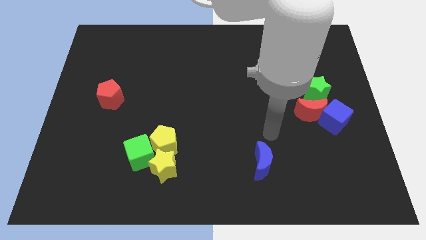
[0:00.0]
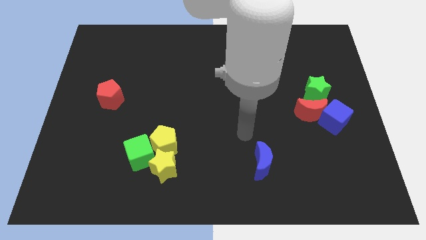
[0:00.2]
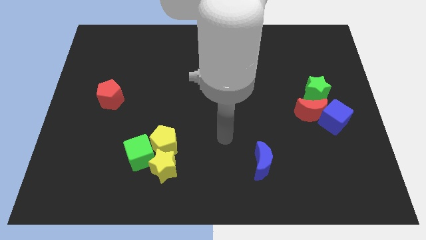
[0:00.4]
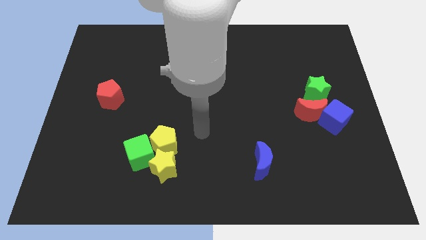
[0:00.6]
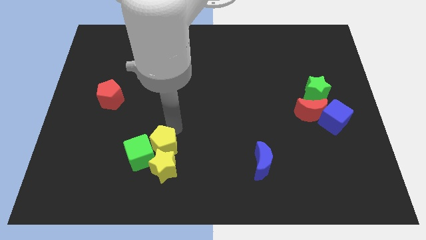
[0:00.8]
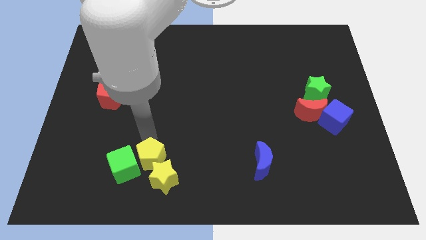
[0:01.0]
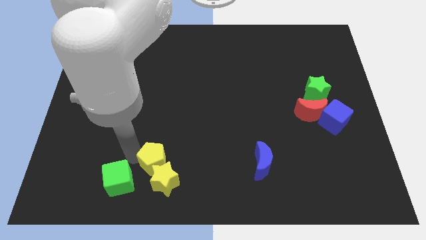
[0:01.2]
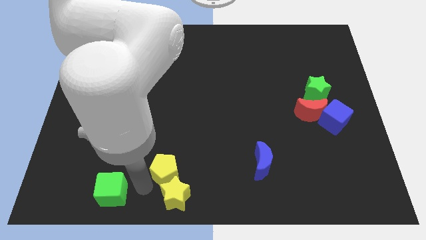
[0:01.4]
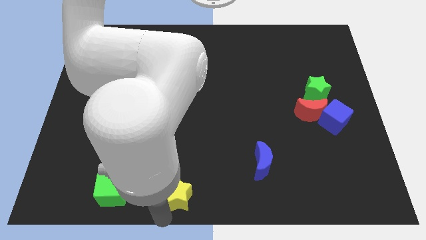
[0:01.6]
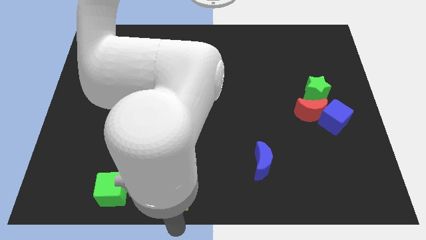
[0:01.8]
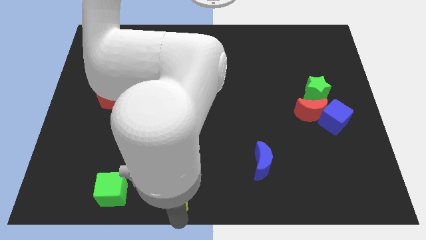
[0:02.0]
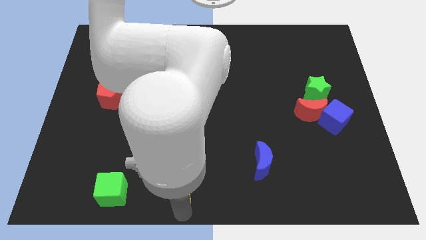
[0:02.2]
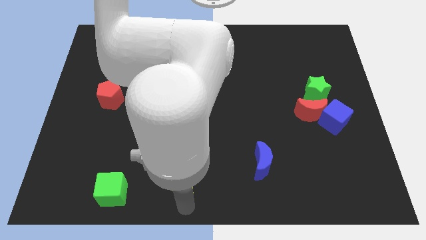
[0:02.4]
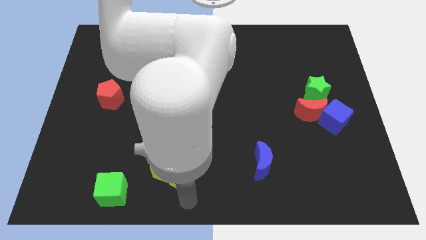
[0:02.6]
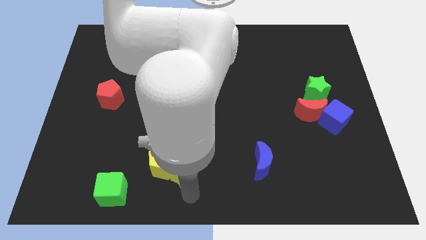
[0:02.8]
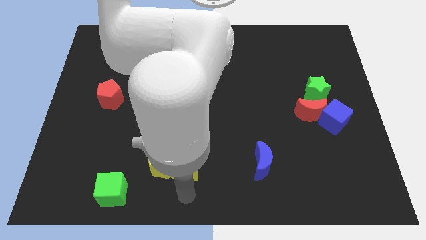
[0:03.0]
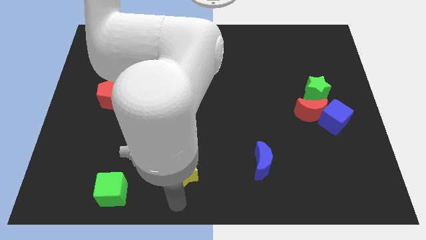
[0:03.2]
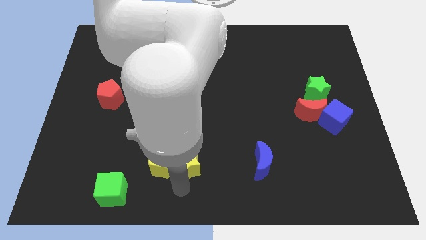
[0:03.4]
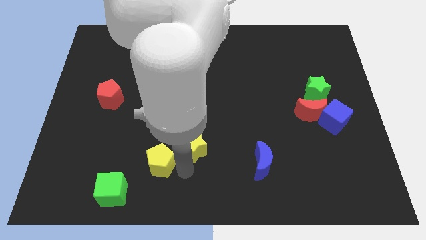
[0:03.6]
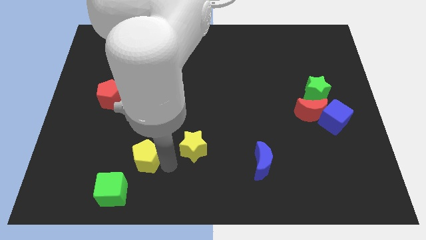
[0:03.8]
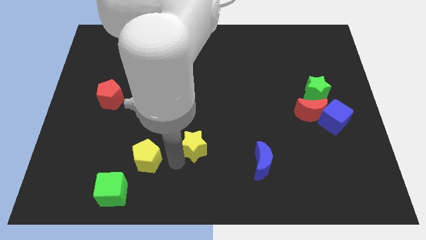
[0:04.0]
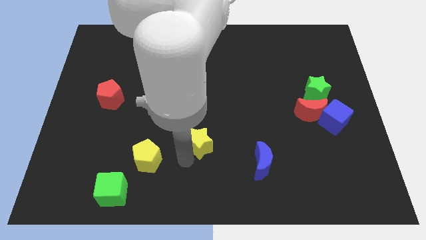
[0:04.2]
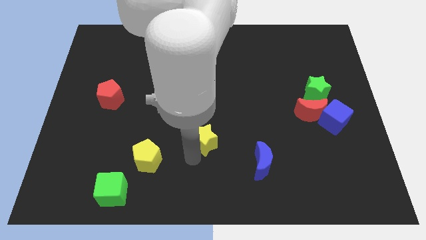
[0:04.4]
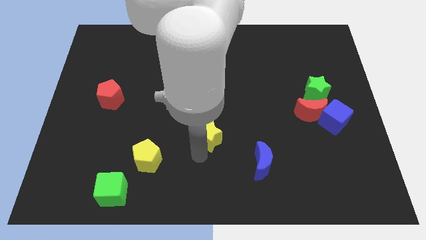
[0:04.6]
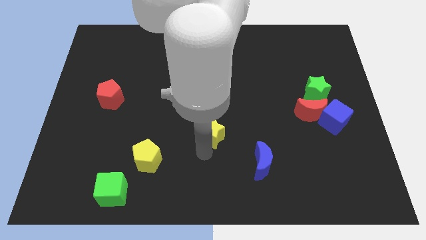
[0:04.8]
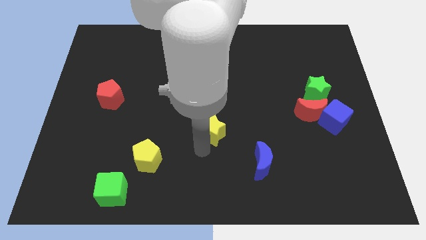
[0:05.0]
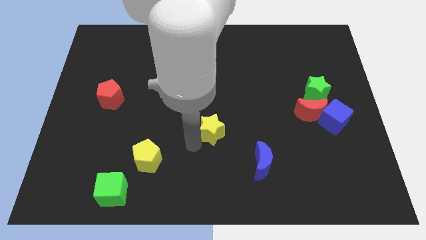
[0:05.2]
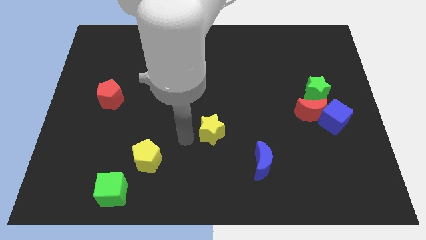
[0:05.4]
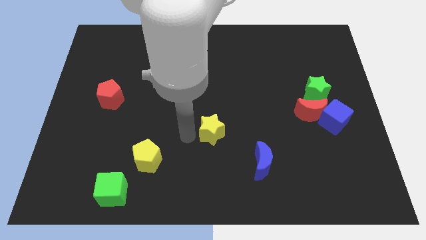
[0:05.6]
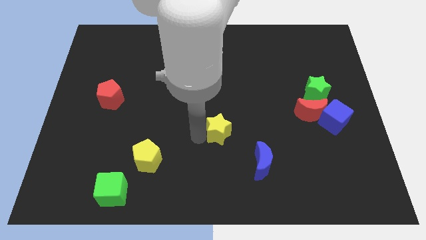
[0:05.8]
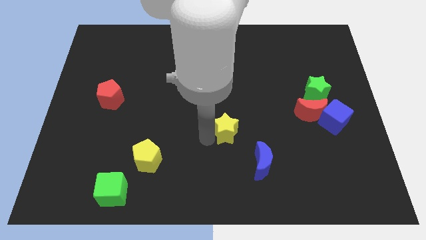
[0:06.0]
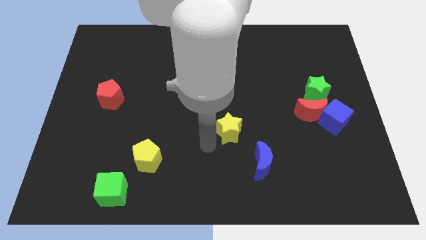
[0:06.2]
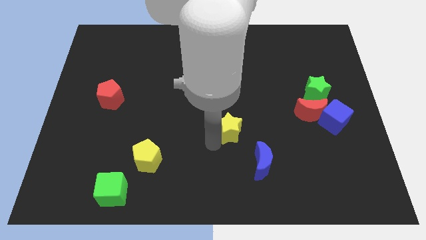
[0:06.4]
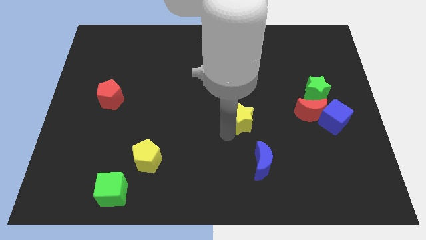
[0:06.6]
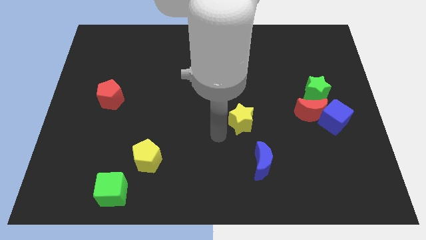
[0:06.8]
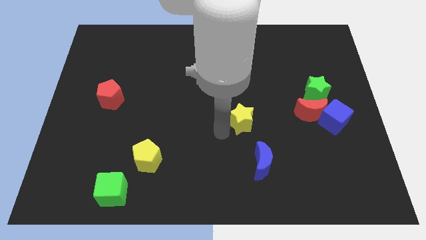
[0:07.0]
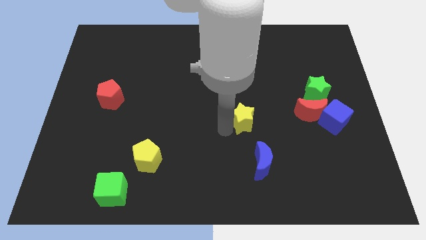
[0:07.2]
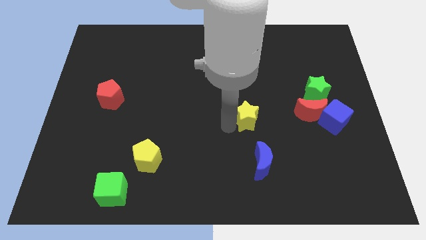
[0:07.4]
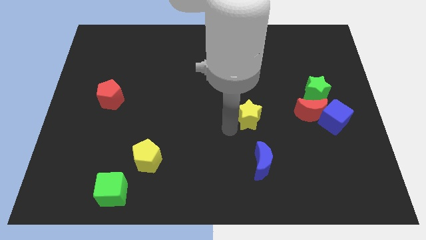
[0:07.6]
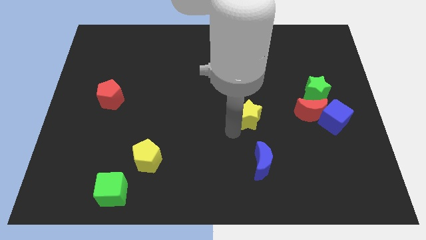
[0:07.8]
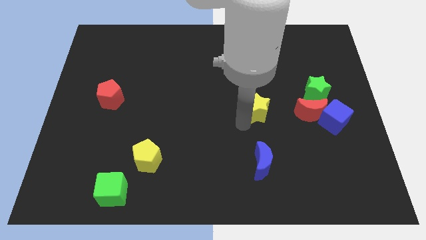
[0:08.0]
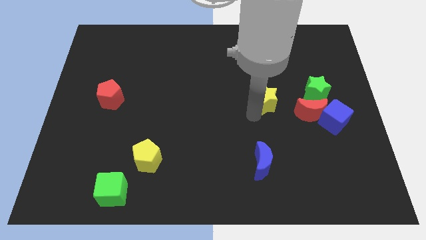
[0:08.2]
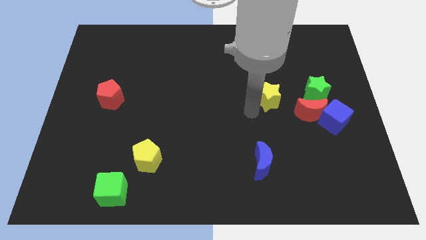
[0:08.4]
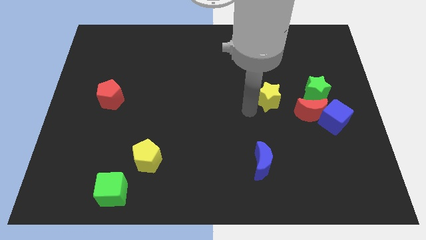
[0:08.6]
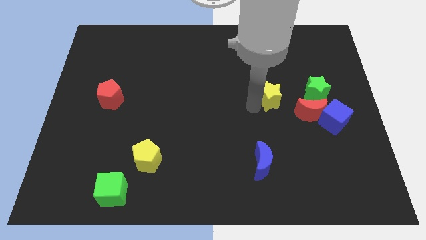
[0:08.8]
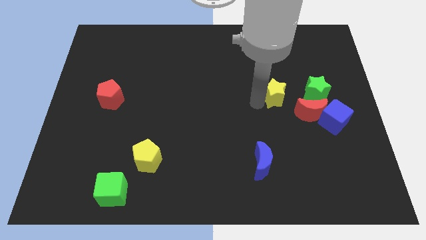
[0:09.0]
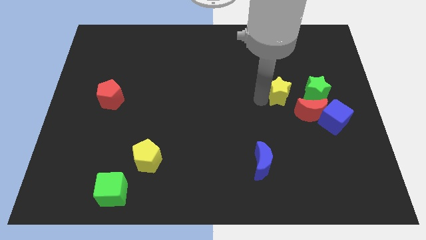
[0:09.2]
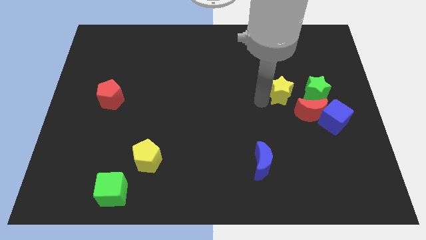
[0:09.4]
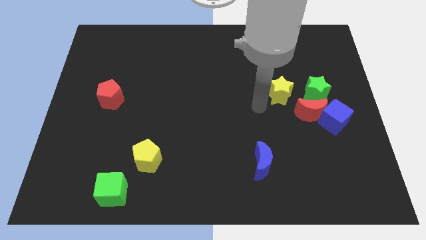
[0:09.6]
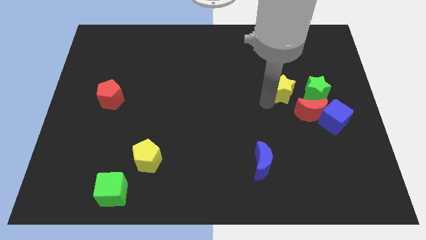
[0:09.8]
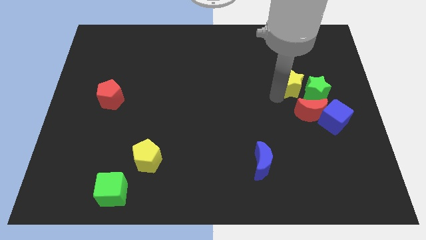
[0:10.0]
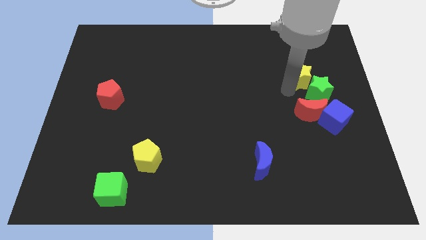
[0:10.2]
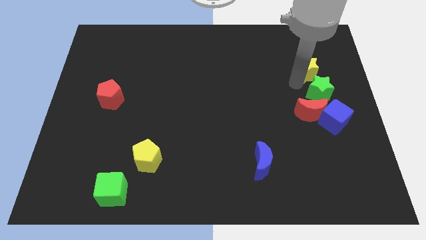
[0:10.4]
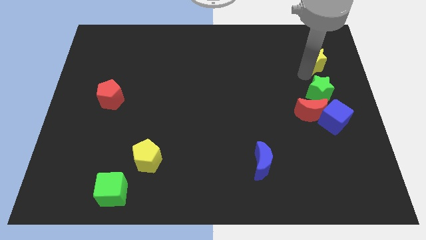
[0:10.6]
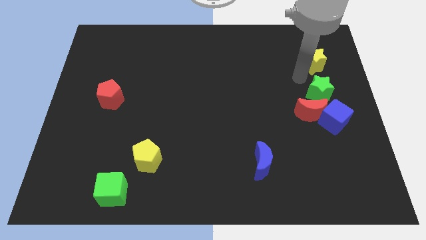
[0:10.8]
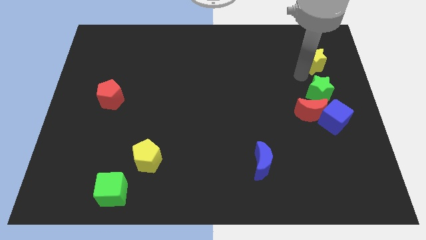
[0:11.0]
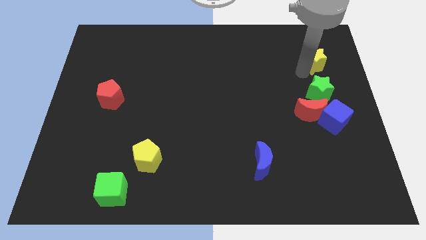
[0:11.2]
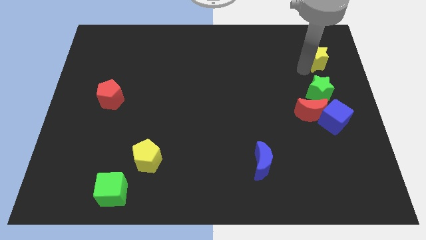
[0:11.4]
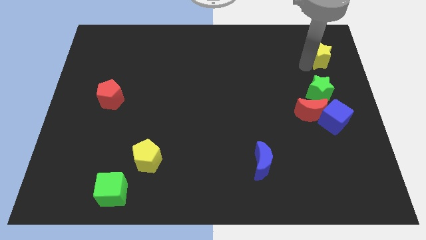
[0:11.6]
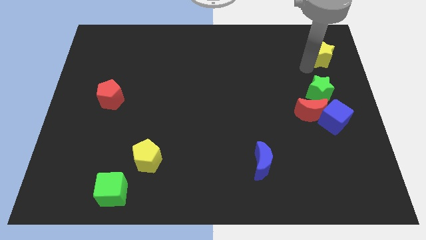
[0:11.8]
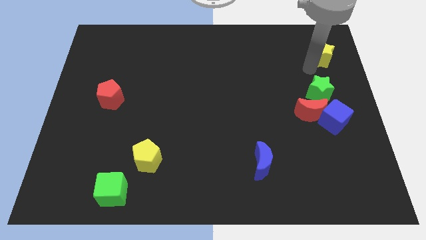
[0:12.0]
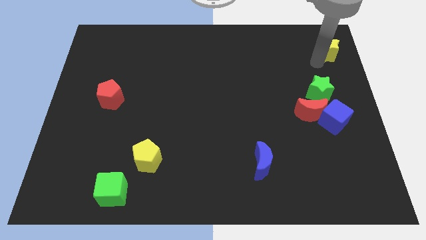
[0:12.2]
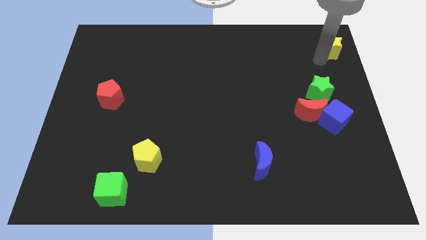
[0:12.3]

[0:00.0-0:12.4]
slide the yellow star to the upper right corner
